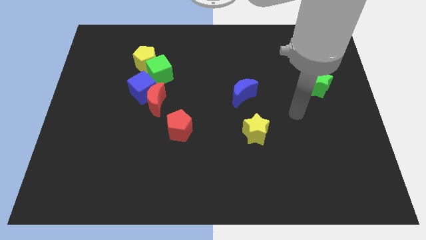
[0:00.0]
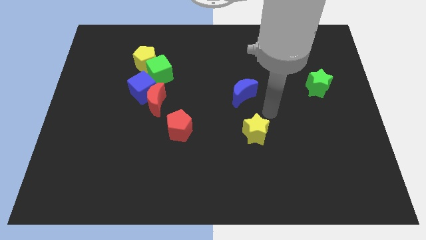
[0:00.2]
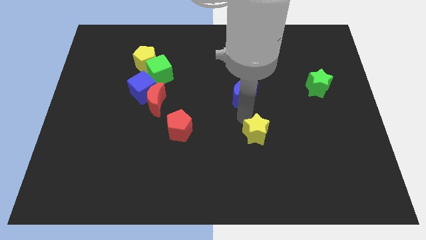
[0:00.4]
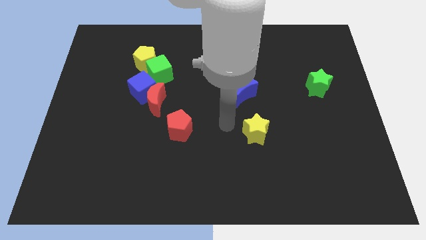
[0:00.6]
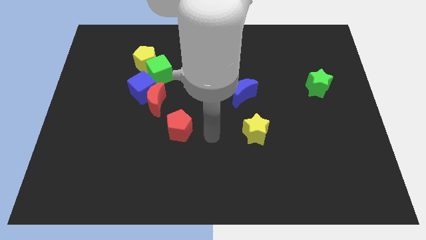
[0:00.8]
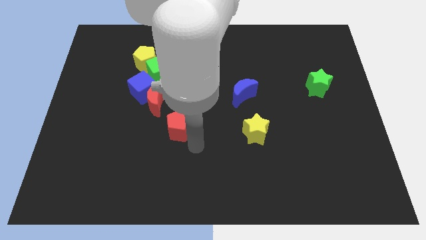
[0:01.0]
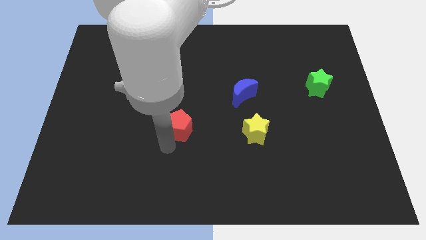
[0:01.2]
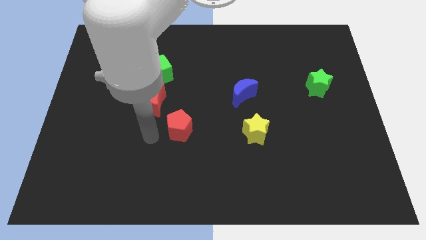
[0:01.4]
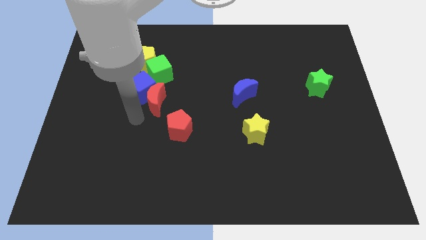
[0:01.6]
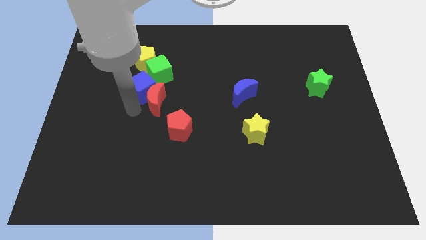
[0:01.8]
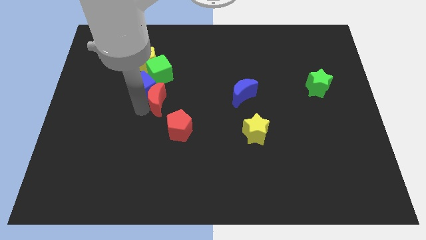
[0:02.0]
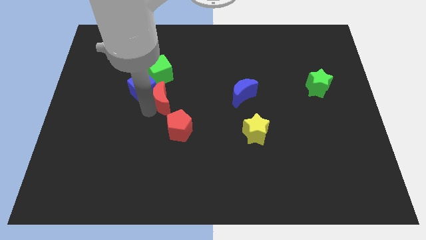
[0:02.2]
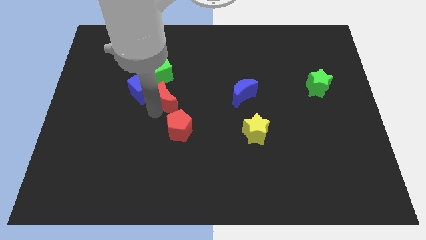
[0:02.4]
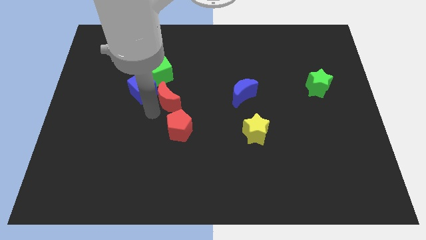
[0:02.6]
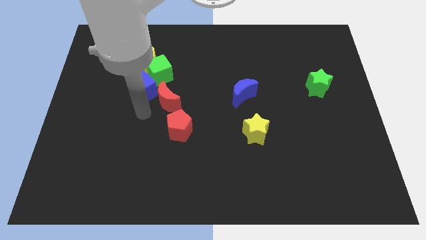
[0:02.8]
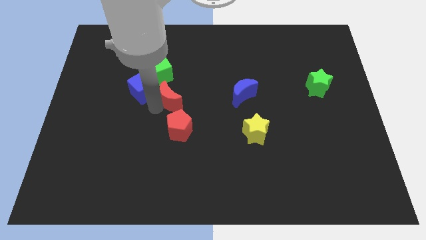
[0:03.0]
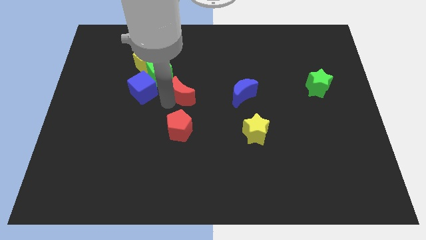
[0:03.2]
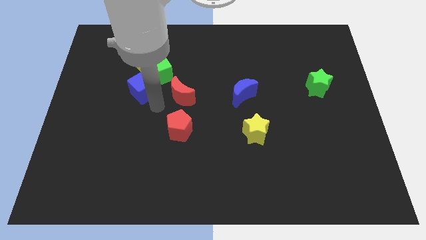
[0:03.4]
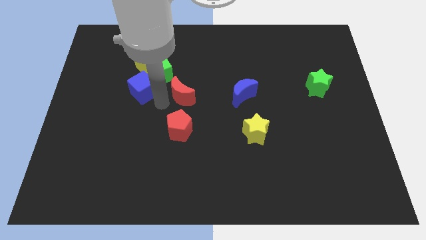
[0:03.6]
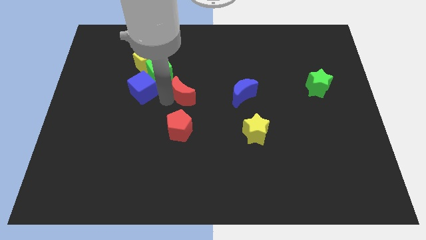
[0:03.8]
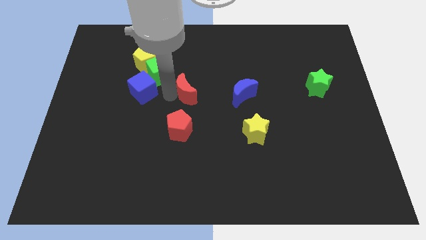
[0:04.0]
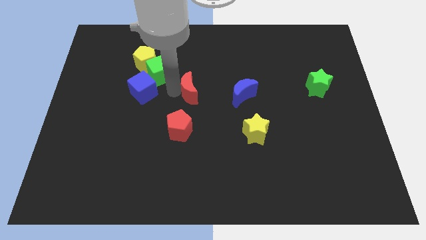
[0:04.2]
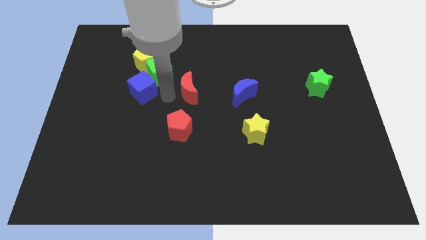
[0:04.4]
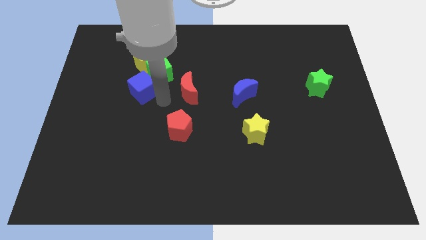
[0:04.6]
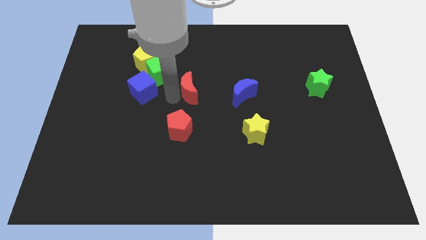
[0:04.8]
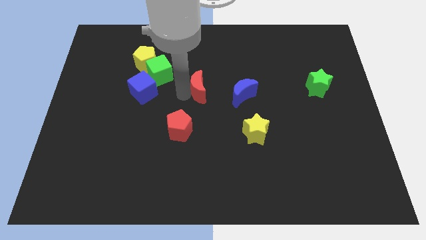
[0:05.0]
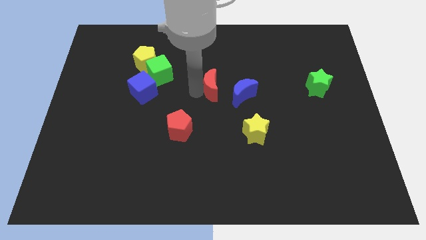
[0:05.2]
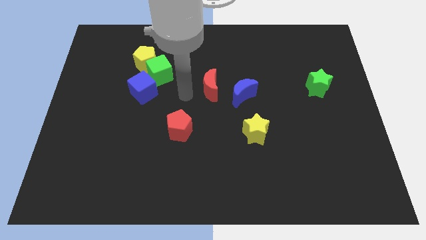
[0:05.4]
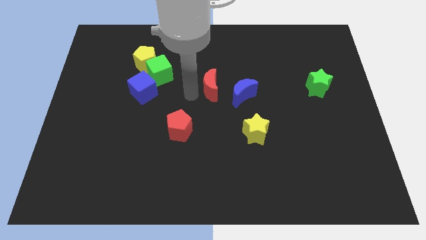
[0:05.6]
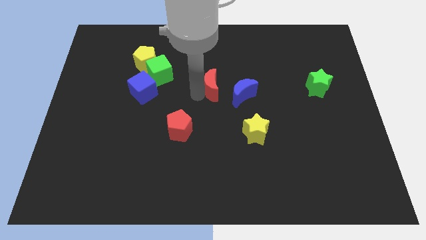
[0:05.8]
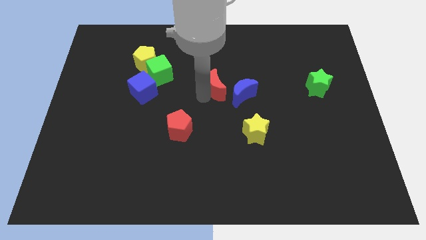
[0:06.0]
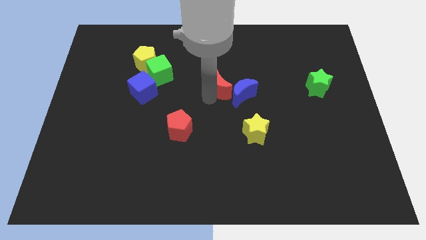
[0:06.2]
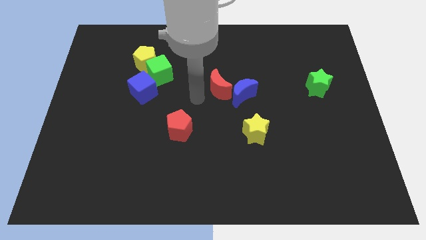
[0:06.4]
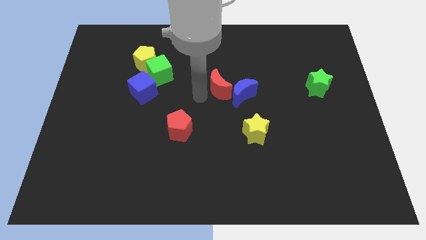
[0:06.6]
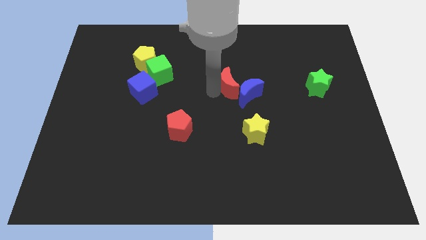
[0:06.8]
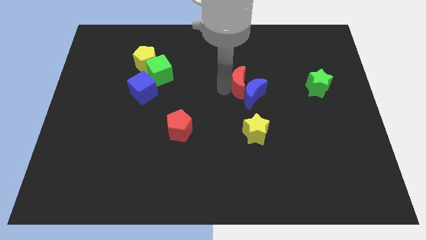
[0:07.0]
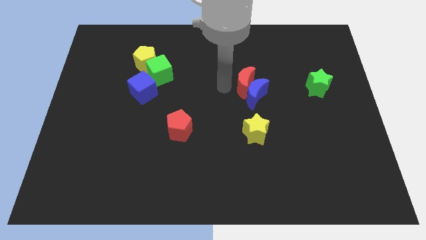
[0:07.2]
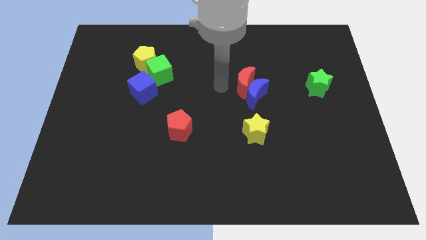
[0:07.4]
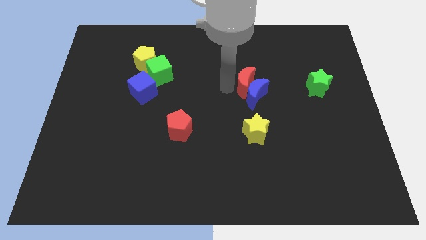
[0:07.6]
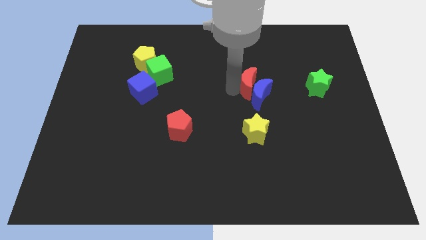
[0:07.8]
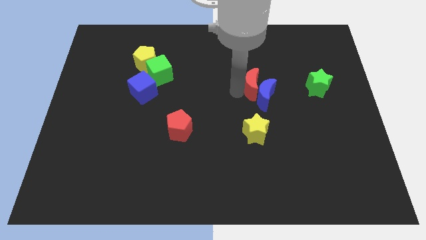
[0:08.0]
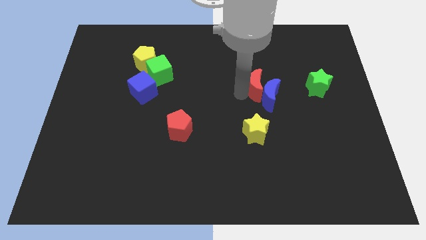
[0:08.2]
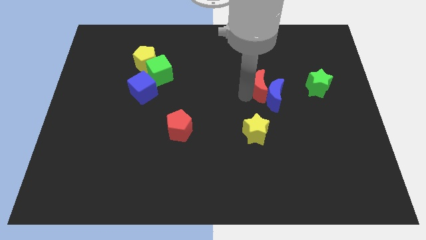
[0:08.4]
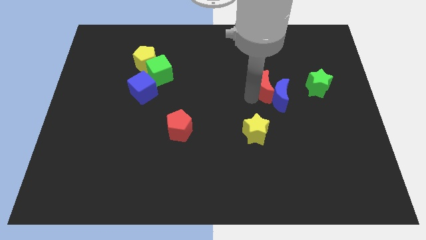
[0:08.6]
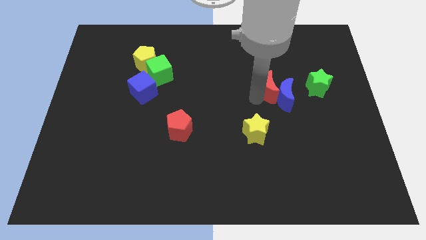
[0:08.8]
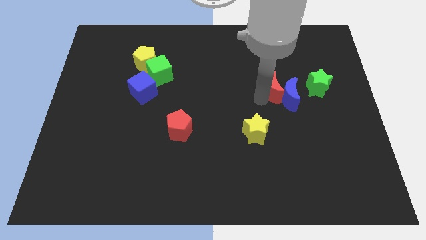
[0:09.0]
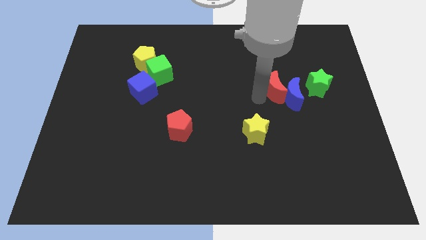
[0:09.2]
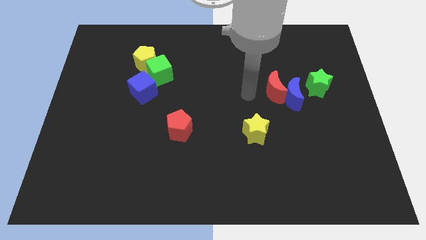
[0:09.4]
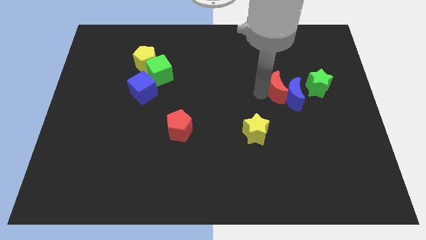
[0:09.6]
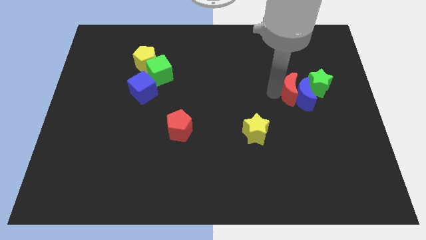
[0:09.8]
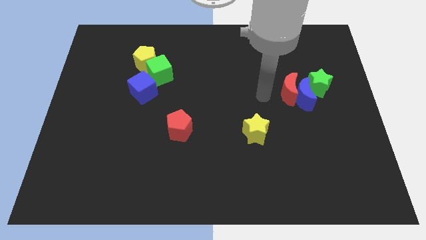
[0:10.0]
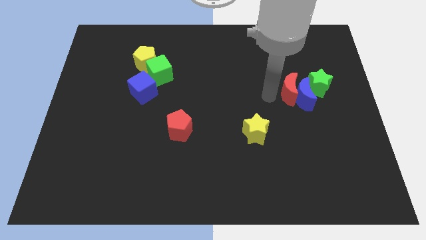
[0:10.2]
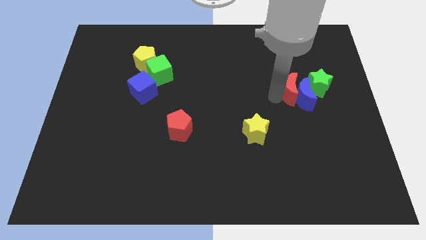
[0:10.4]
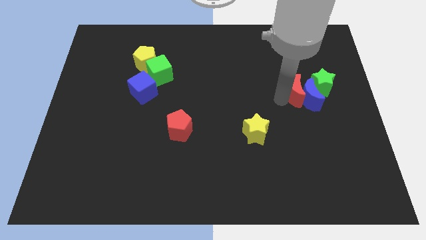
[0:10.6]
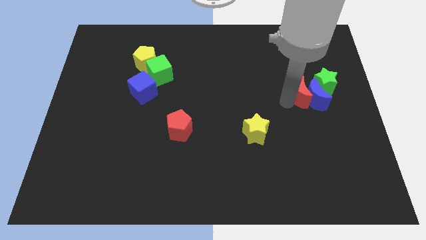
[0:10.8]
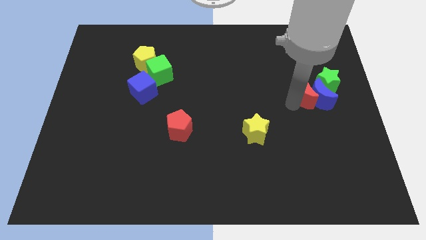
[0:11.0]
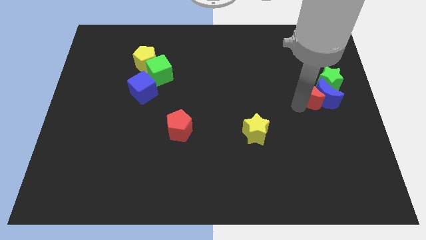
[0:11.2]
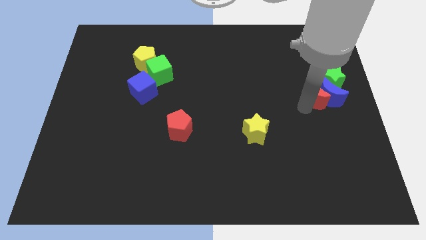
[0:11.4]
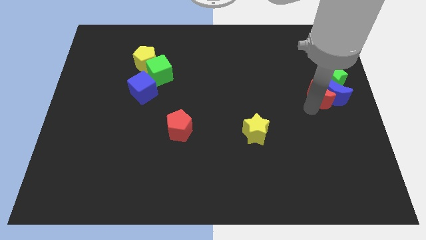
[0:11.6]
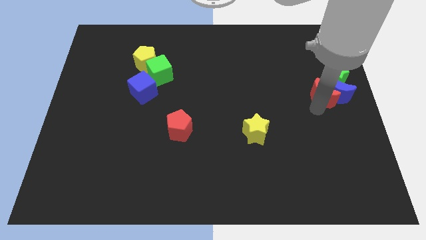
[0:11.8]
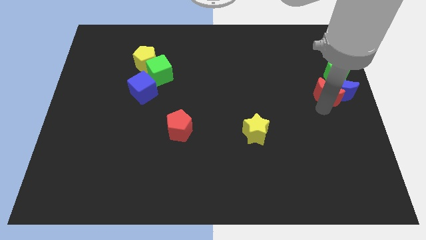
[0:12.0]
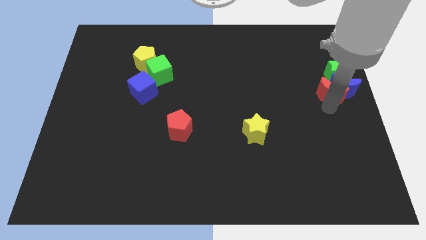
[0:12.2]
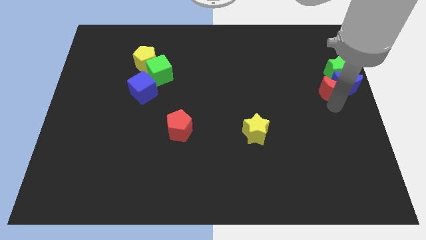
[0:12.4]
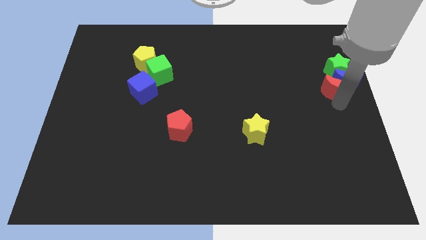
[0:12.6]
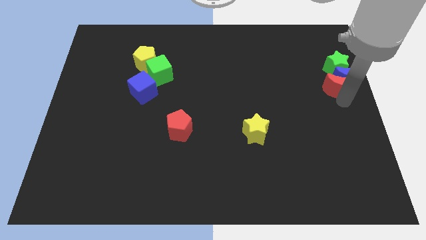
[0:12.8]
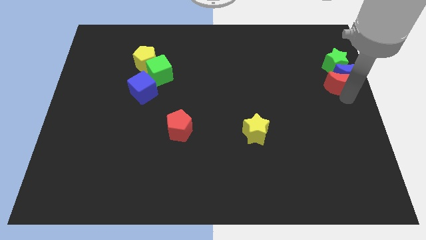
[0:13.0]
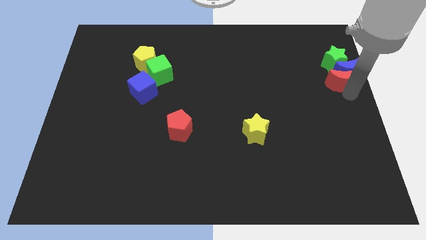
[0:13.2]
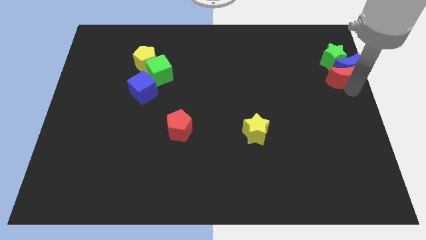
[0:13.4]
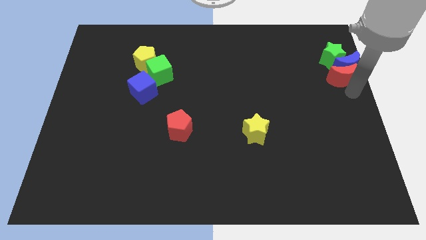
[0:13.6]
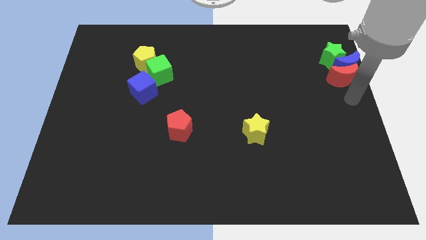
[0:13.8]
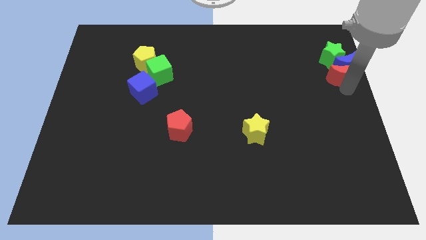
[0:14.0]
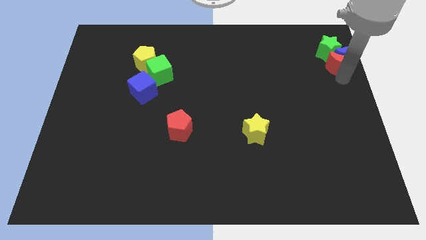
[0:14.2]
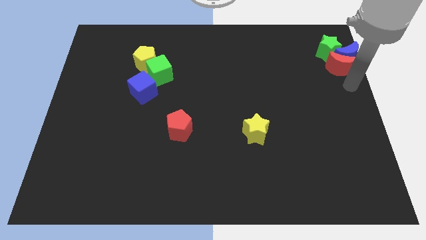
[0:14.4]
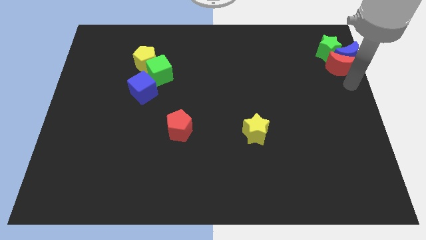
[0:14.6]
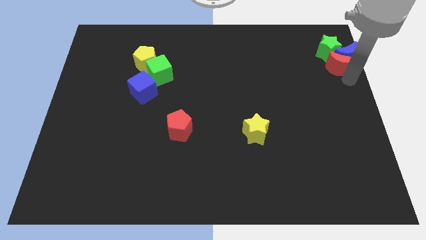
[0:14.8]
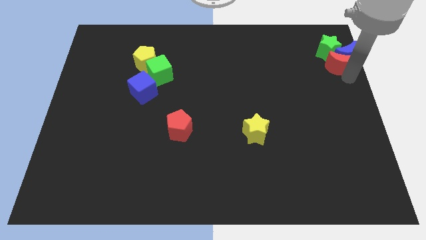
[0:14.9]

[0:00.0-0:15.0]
slide the red moon next to the green star
